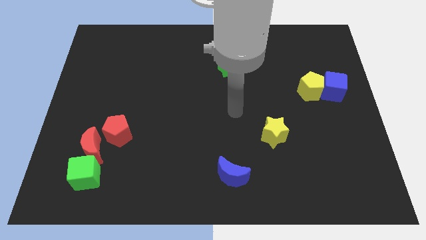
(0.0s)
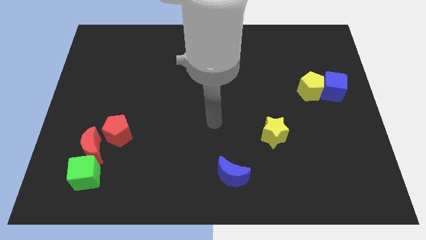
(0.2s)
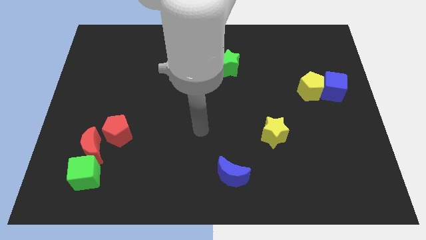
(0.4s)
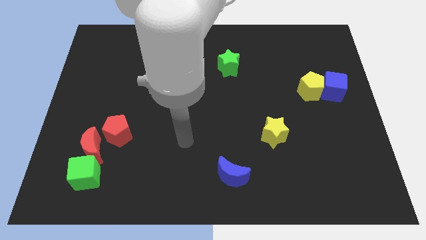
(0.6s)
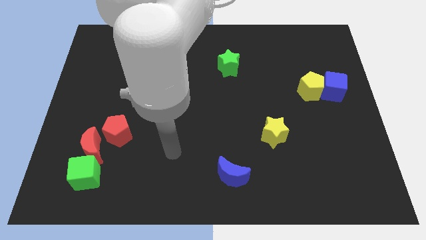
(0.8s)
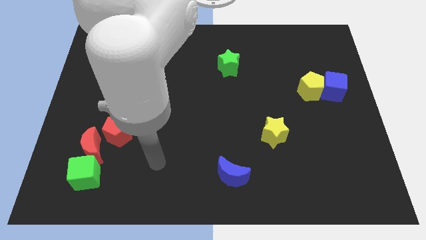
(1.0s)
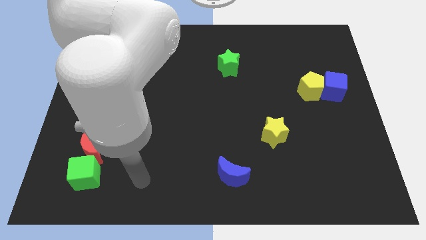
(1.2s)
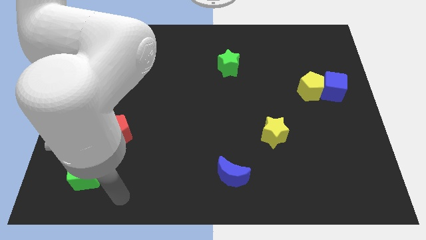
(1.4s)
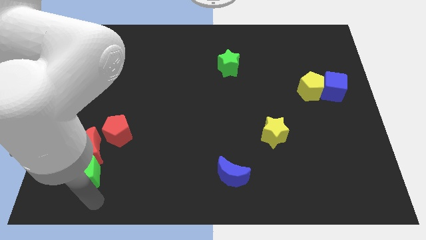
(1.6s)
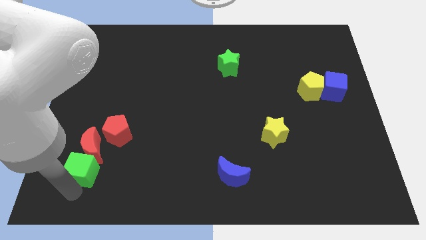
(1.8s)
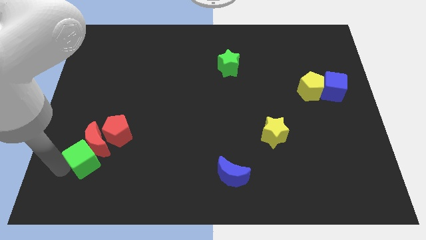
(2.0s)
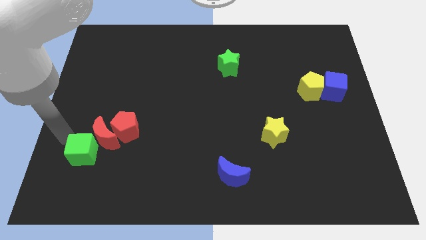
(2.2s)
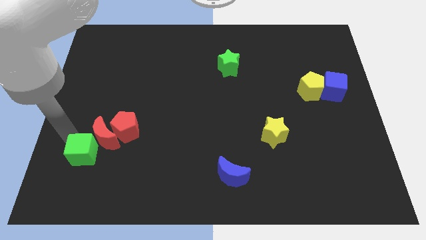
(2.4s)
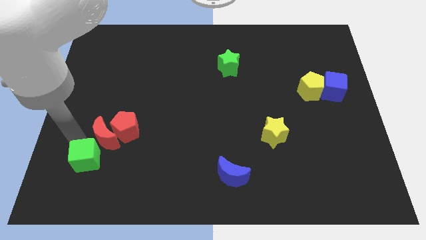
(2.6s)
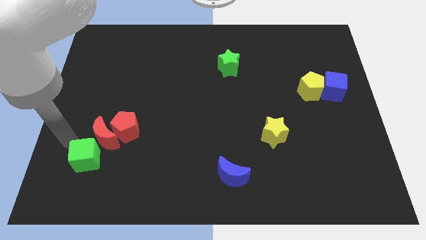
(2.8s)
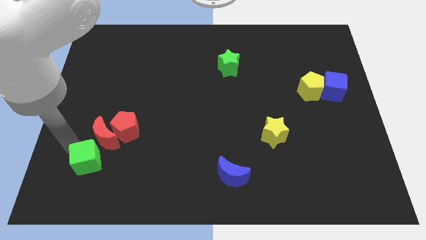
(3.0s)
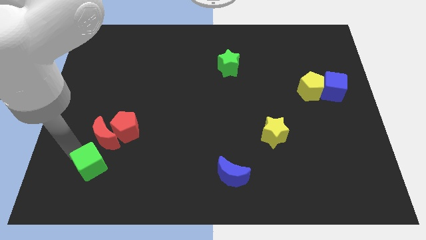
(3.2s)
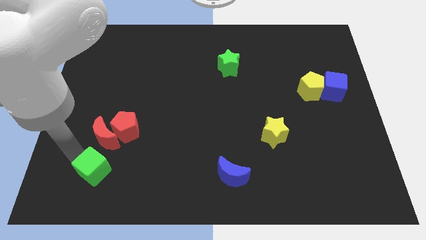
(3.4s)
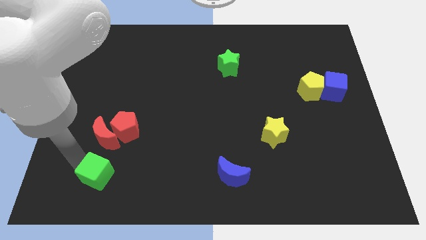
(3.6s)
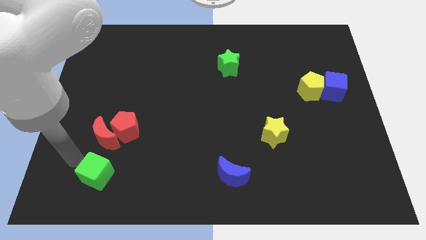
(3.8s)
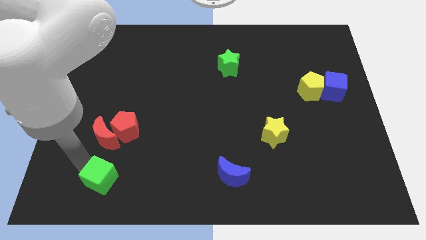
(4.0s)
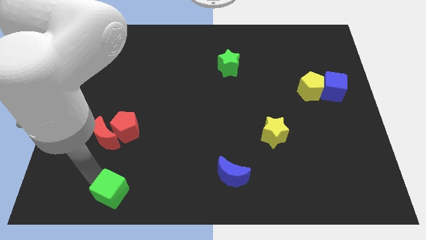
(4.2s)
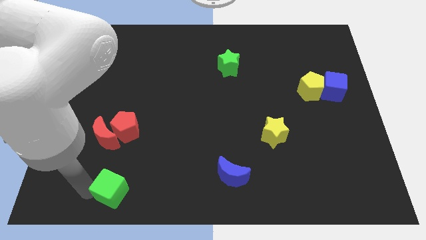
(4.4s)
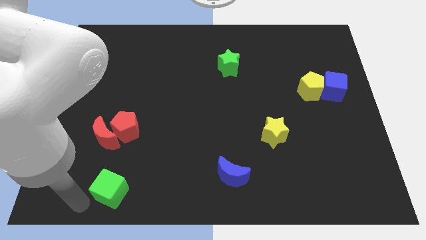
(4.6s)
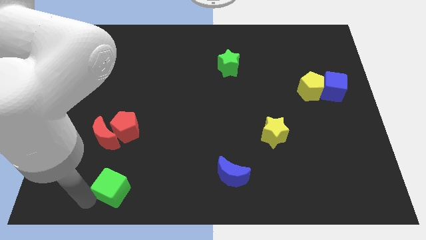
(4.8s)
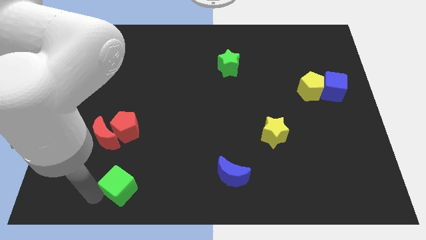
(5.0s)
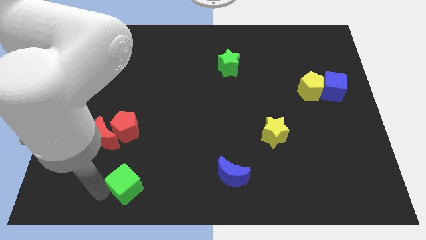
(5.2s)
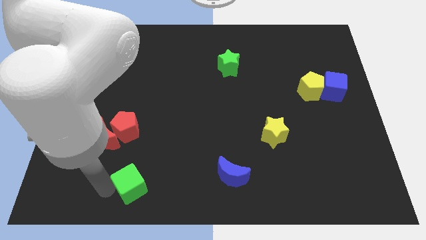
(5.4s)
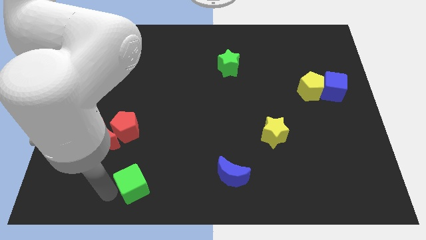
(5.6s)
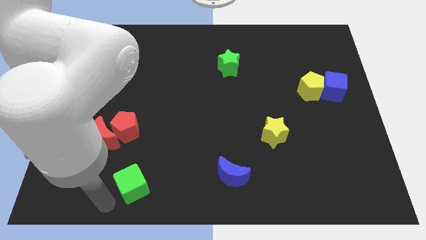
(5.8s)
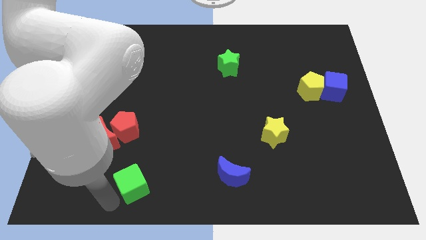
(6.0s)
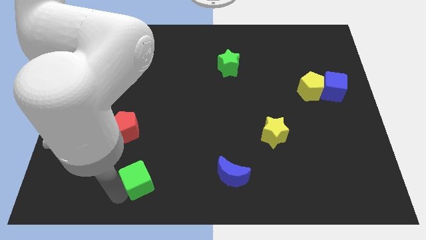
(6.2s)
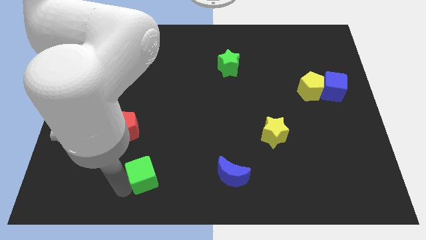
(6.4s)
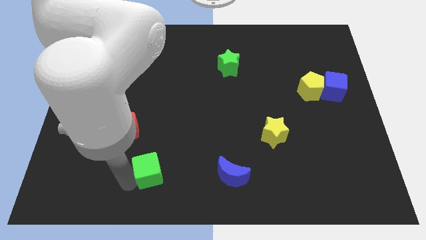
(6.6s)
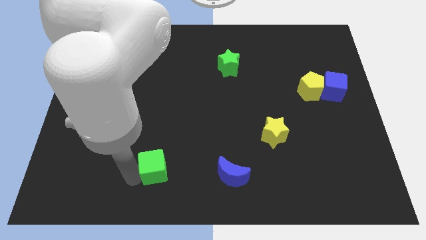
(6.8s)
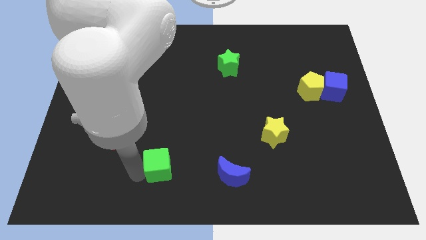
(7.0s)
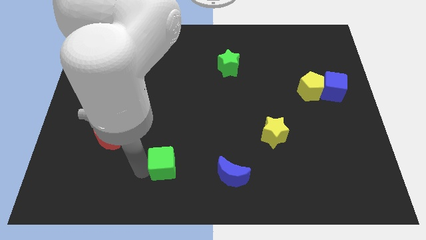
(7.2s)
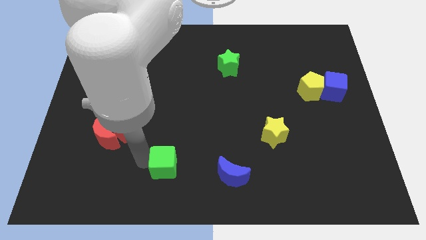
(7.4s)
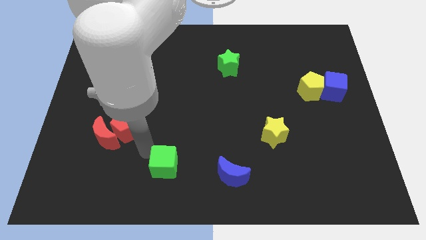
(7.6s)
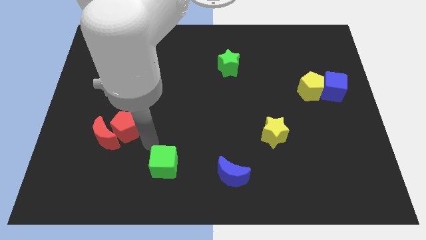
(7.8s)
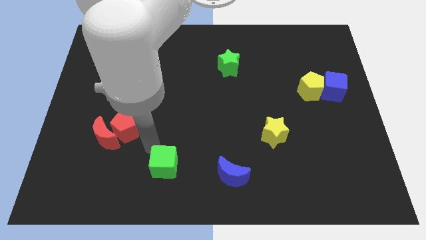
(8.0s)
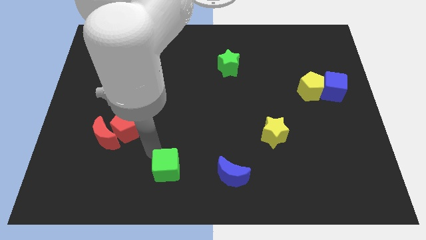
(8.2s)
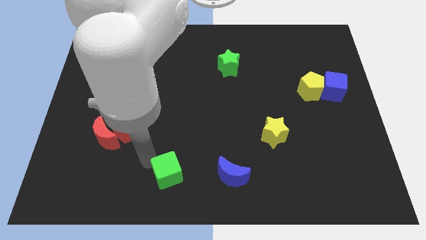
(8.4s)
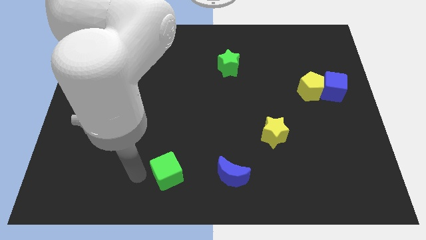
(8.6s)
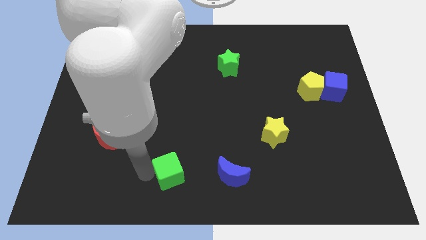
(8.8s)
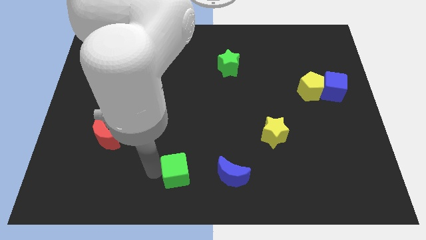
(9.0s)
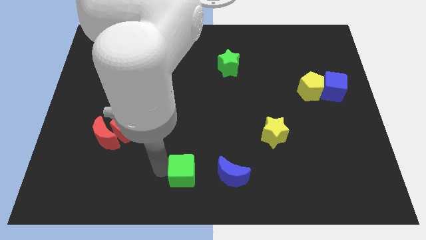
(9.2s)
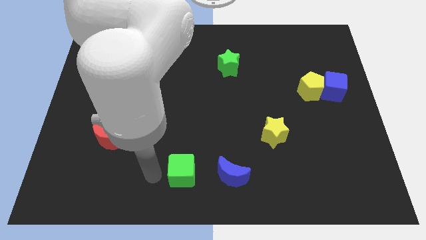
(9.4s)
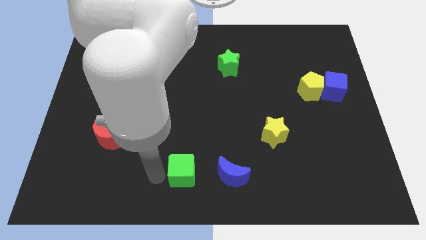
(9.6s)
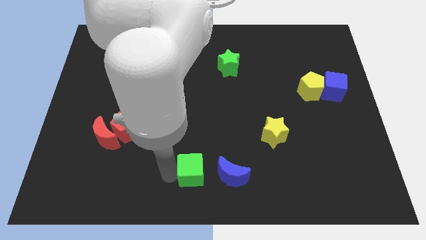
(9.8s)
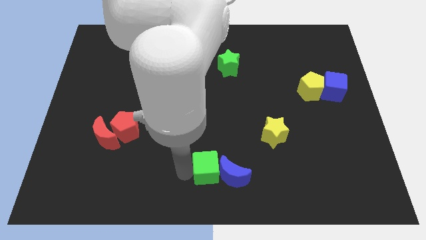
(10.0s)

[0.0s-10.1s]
slide the green cube close to the blue moon
